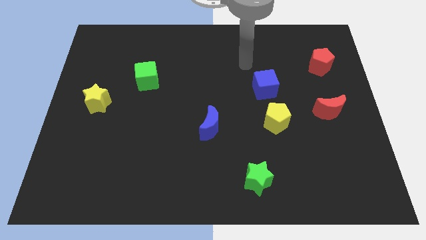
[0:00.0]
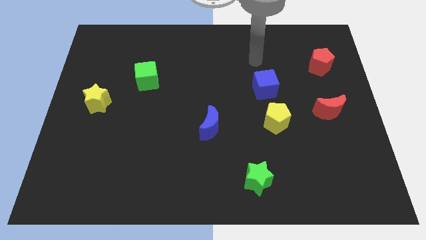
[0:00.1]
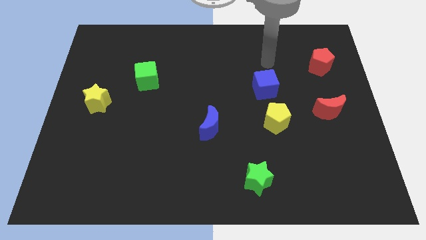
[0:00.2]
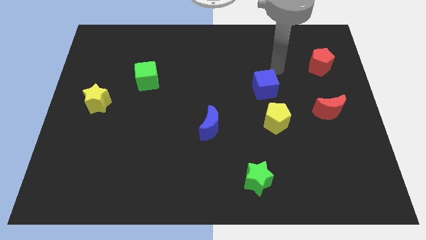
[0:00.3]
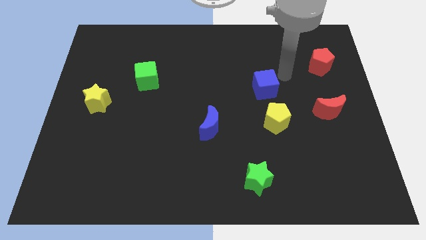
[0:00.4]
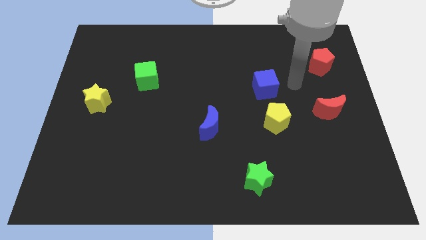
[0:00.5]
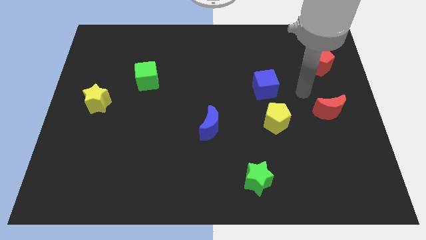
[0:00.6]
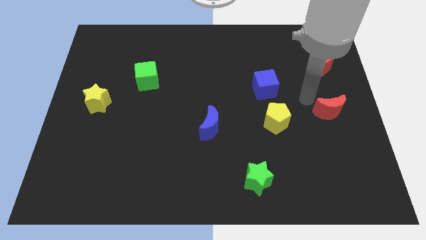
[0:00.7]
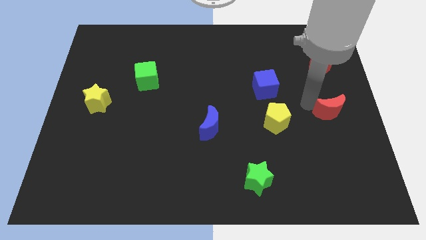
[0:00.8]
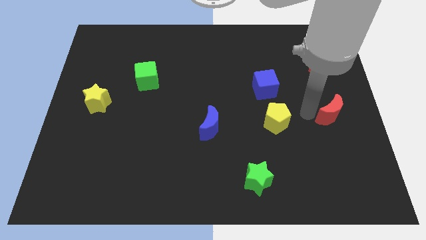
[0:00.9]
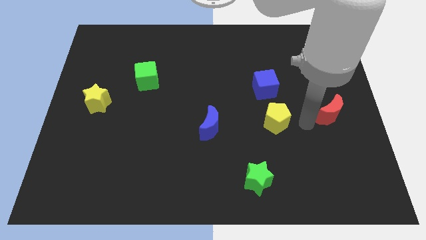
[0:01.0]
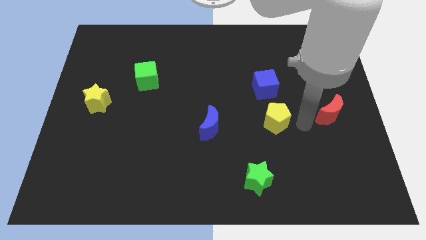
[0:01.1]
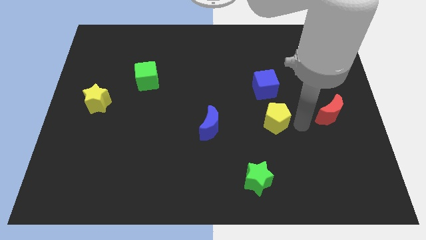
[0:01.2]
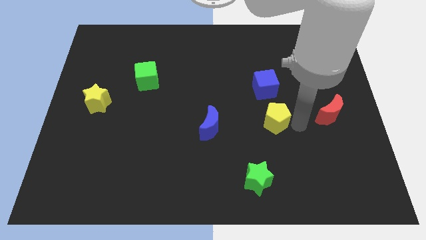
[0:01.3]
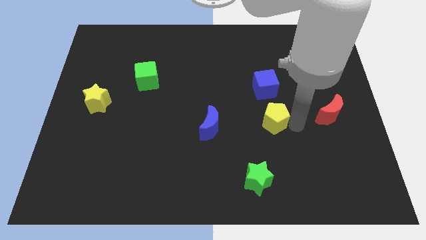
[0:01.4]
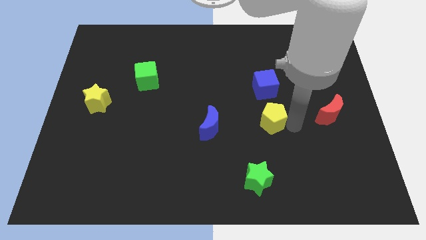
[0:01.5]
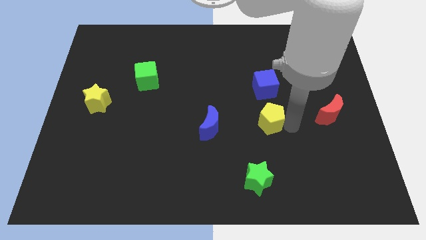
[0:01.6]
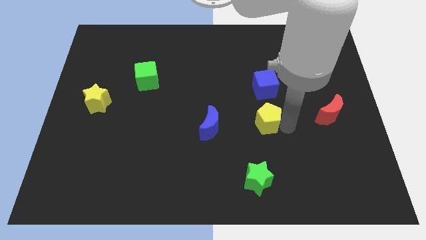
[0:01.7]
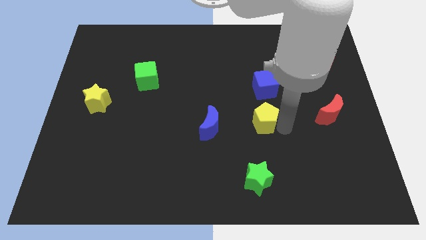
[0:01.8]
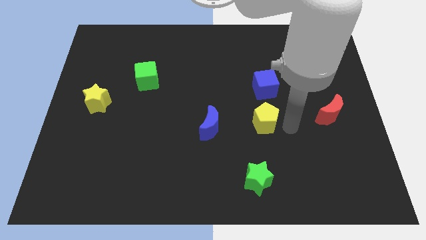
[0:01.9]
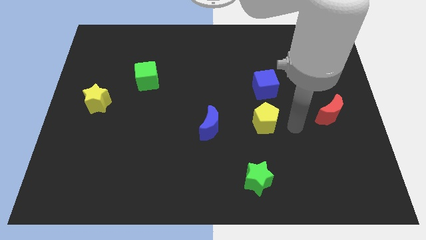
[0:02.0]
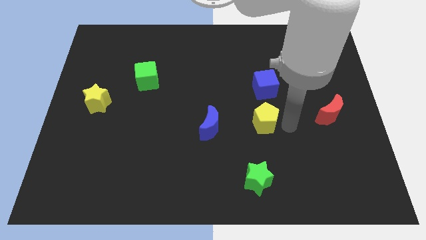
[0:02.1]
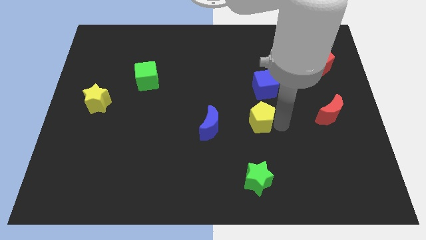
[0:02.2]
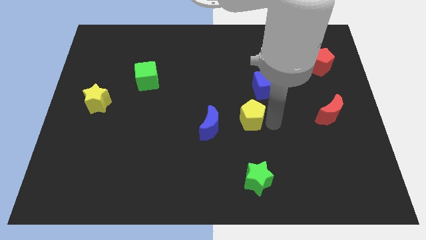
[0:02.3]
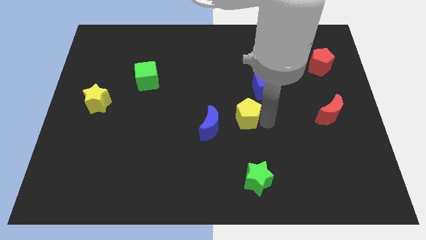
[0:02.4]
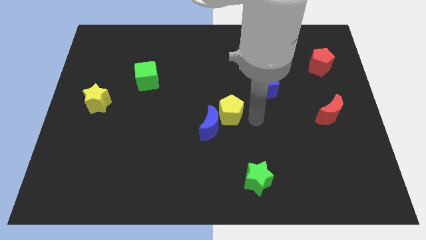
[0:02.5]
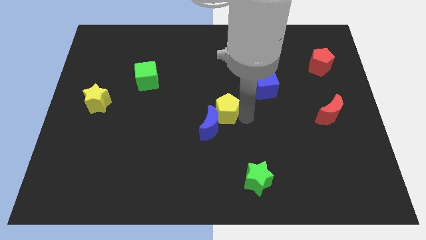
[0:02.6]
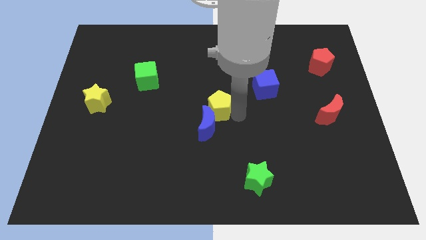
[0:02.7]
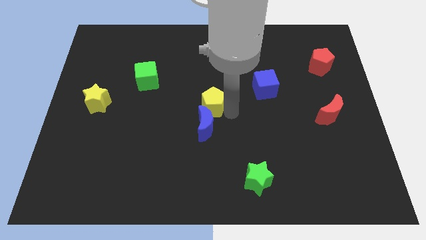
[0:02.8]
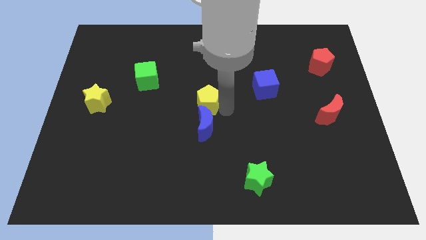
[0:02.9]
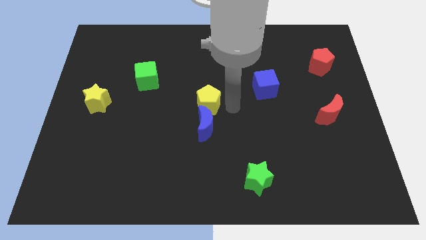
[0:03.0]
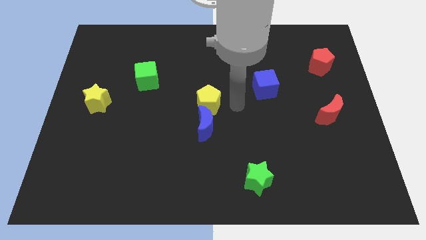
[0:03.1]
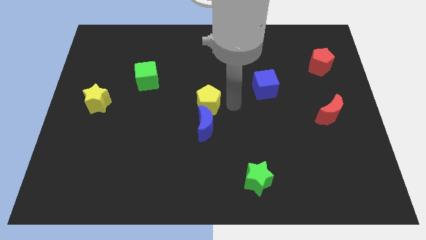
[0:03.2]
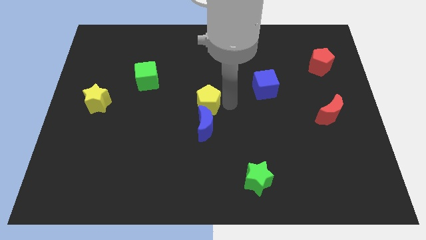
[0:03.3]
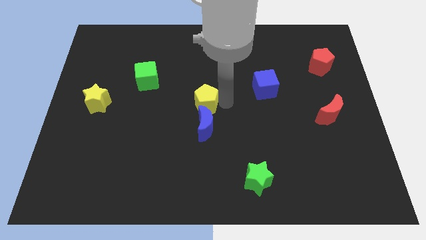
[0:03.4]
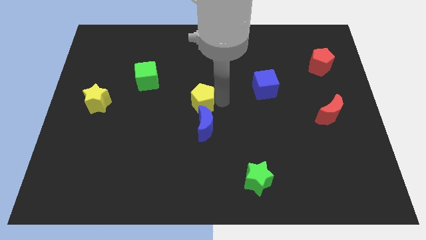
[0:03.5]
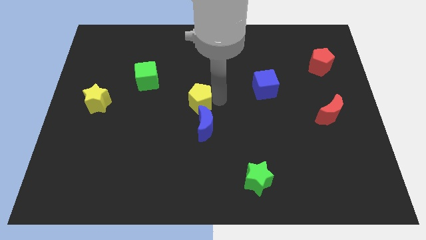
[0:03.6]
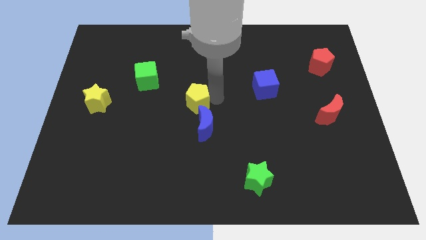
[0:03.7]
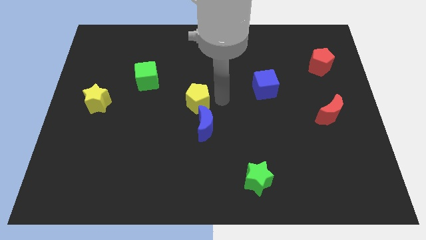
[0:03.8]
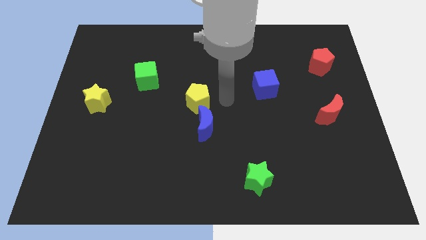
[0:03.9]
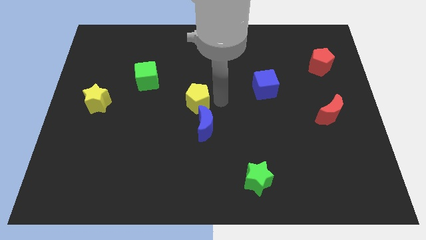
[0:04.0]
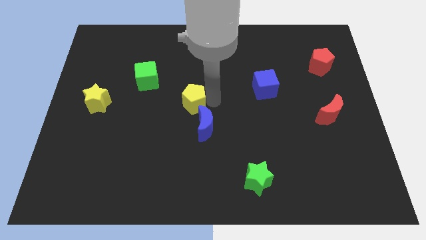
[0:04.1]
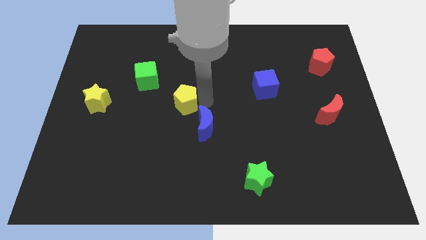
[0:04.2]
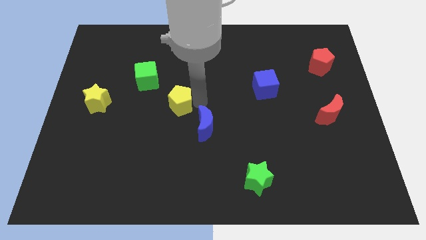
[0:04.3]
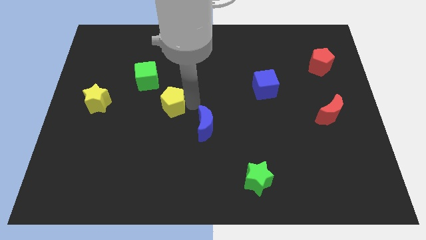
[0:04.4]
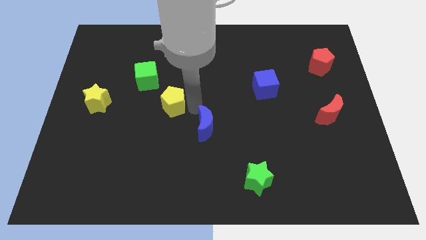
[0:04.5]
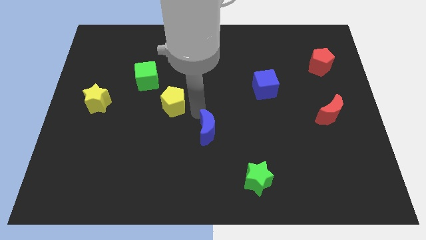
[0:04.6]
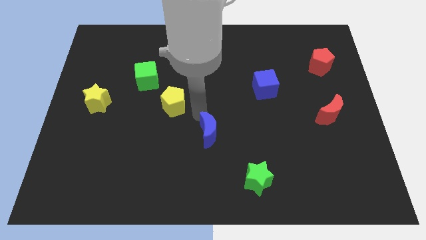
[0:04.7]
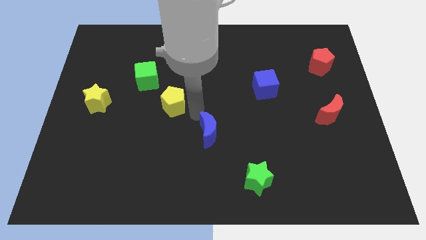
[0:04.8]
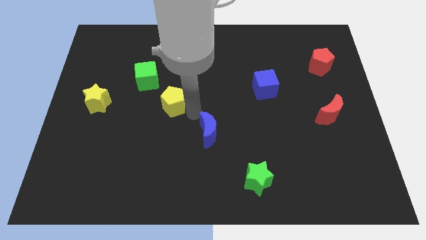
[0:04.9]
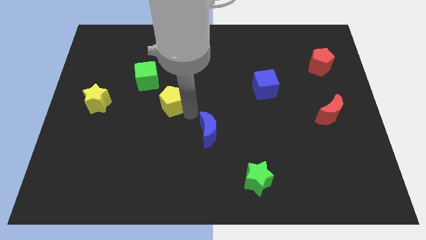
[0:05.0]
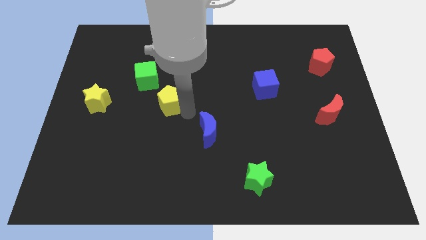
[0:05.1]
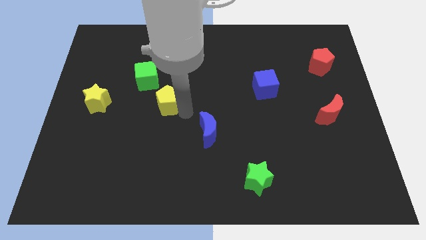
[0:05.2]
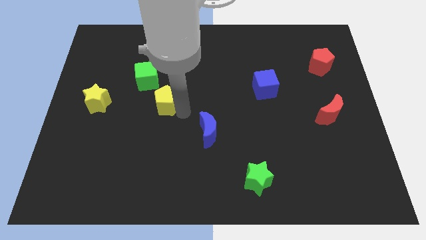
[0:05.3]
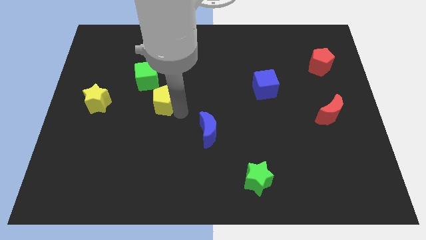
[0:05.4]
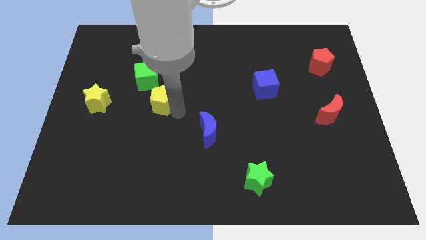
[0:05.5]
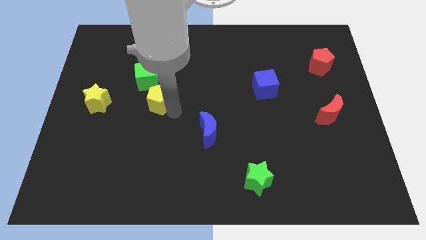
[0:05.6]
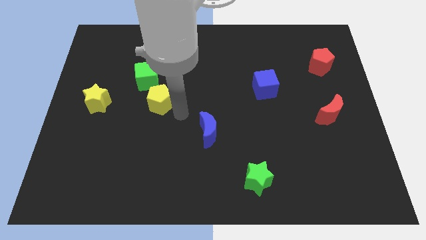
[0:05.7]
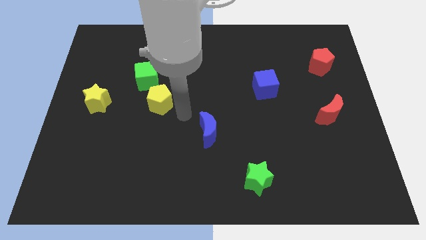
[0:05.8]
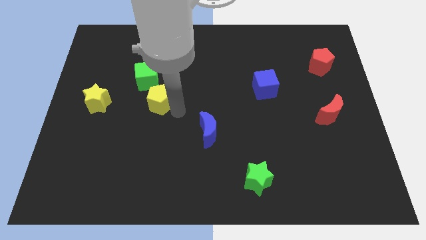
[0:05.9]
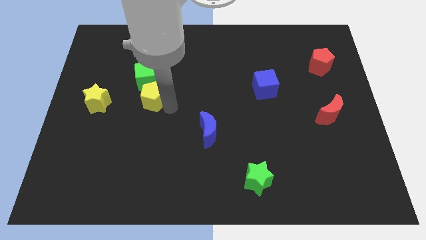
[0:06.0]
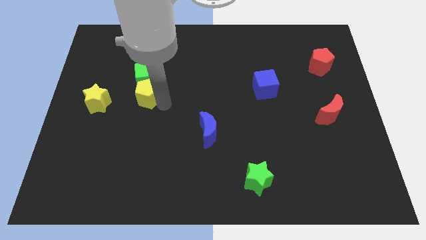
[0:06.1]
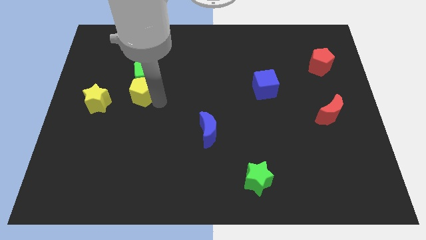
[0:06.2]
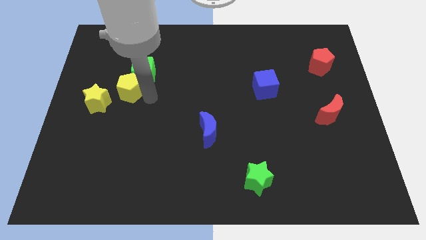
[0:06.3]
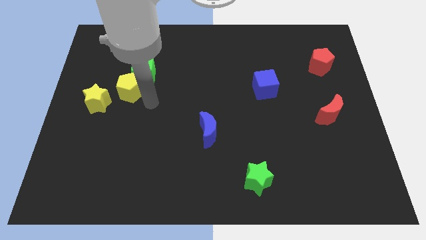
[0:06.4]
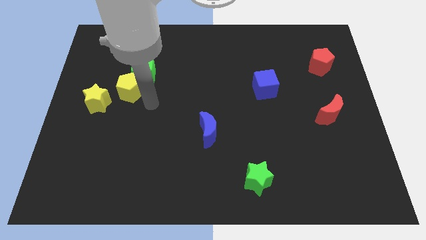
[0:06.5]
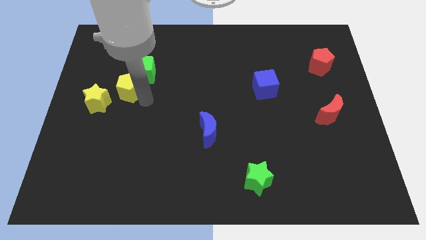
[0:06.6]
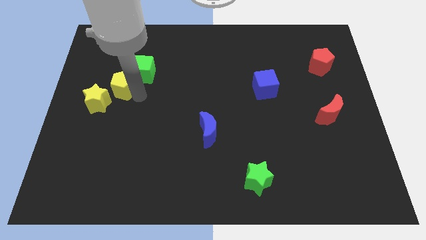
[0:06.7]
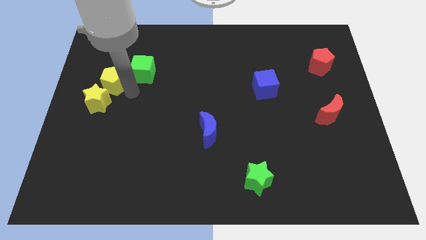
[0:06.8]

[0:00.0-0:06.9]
move the yellow pentagon to the left of the green cube

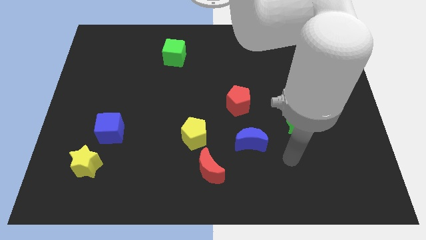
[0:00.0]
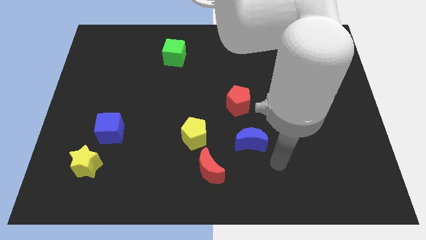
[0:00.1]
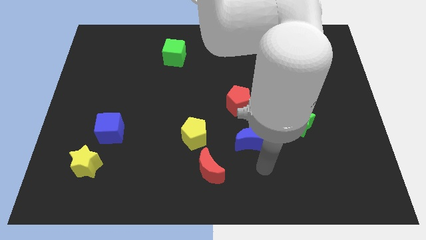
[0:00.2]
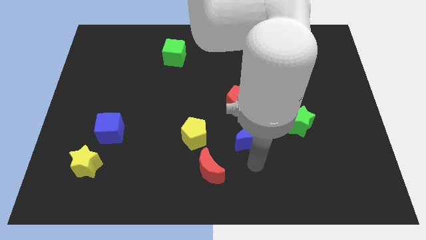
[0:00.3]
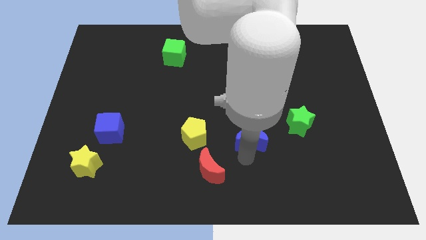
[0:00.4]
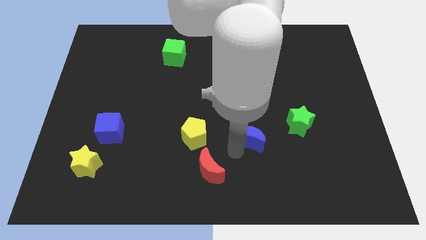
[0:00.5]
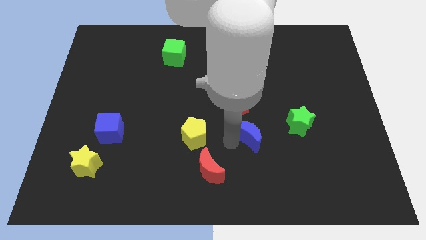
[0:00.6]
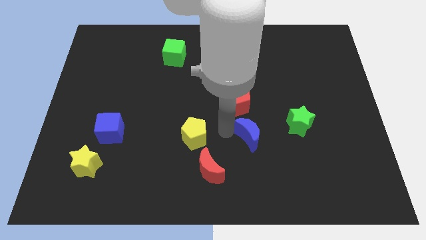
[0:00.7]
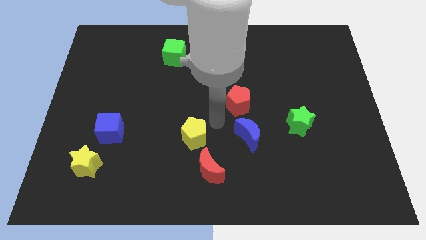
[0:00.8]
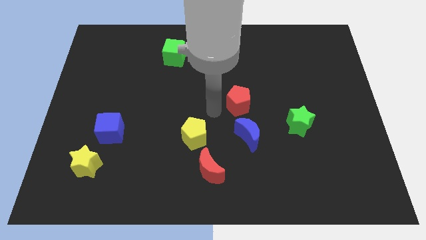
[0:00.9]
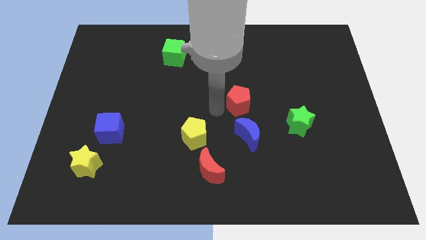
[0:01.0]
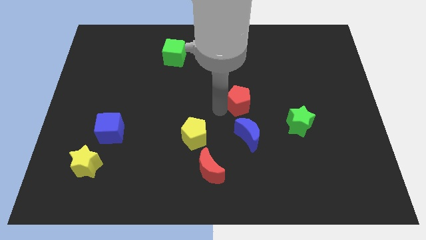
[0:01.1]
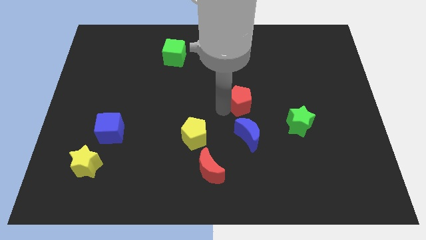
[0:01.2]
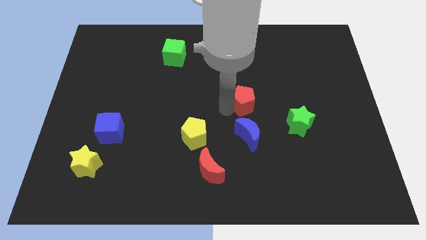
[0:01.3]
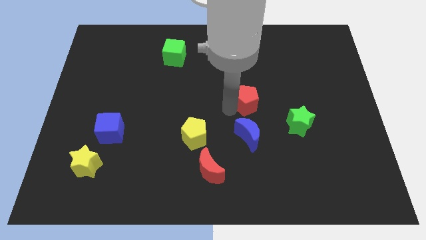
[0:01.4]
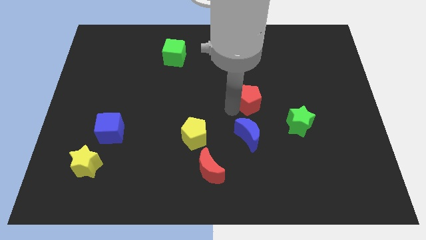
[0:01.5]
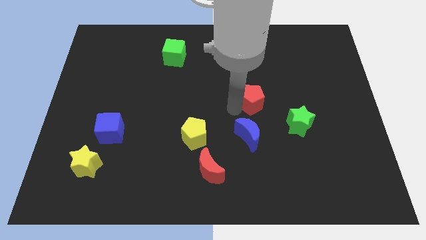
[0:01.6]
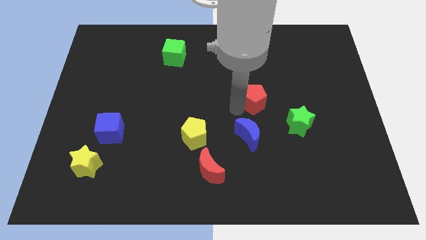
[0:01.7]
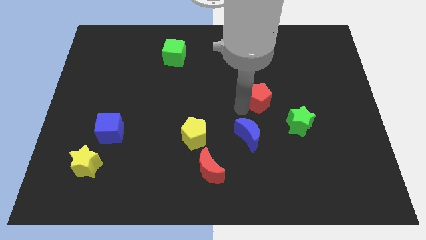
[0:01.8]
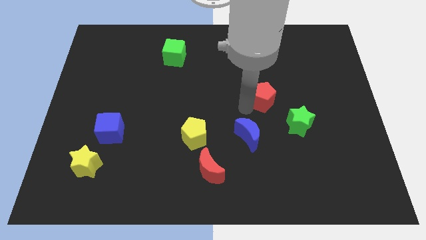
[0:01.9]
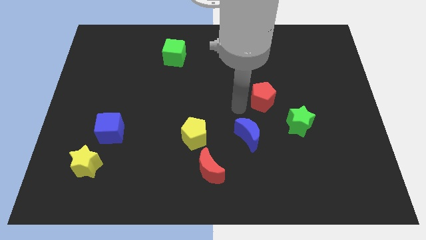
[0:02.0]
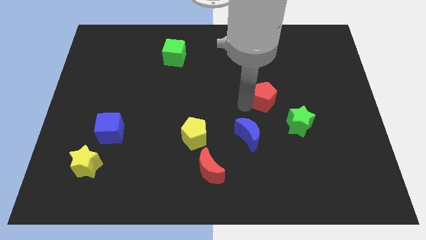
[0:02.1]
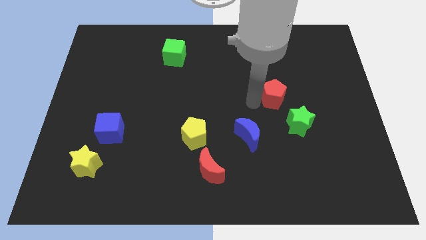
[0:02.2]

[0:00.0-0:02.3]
push the red pentagon above the green star
